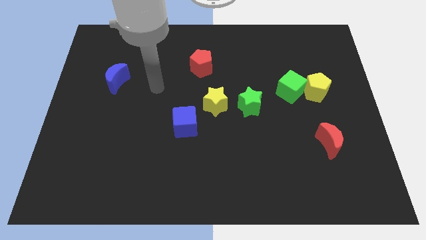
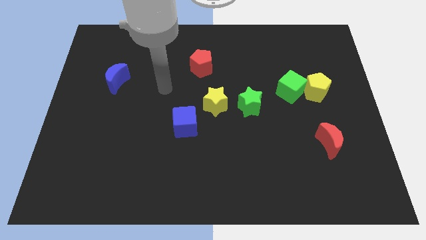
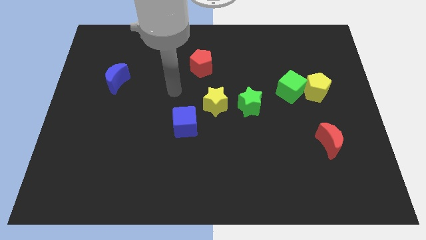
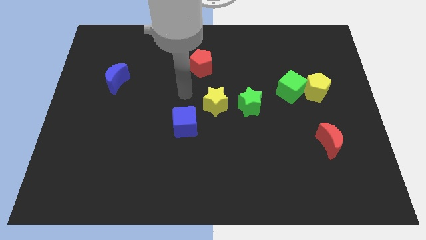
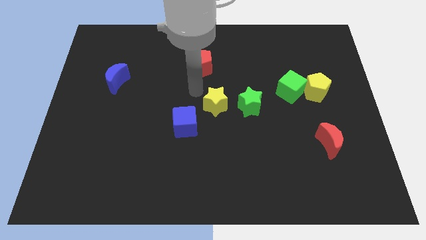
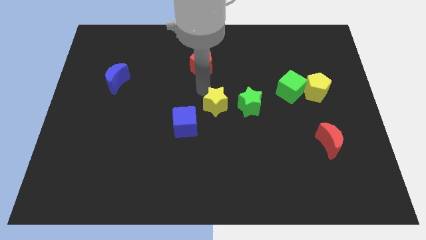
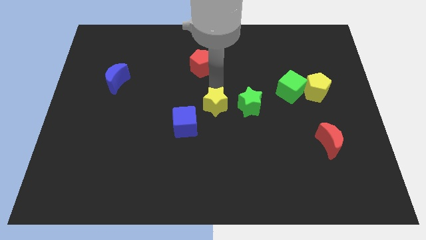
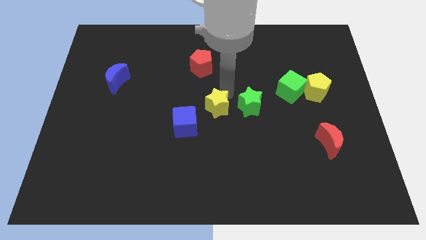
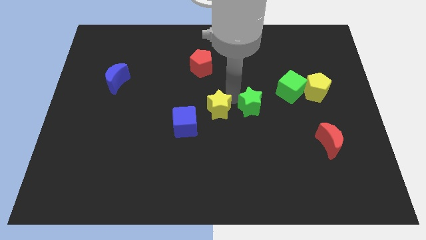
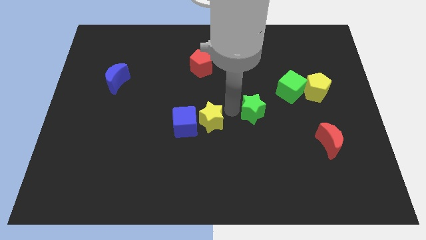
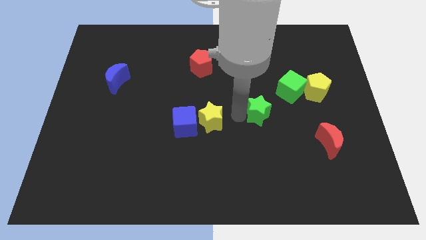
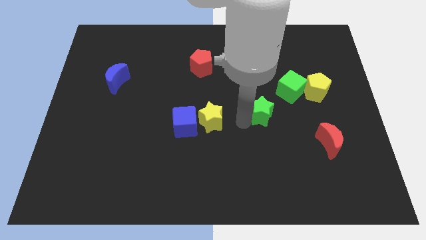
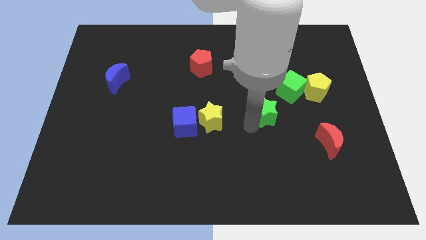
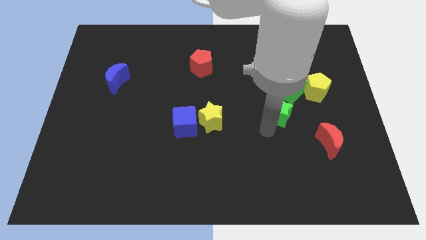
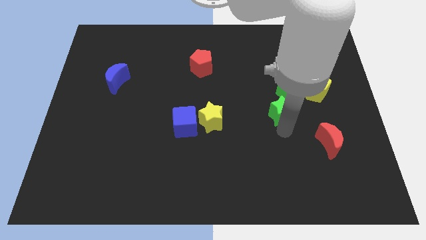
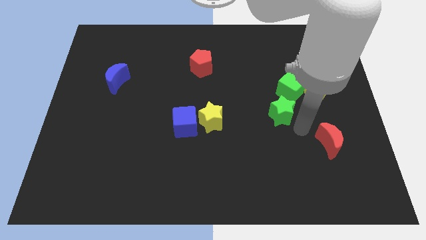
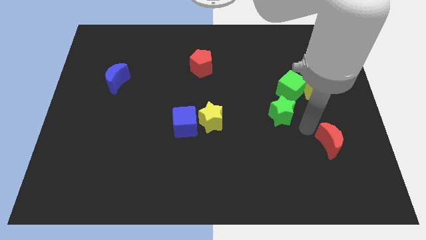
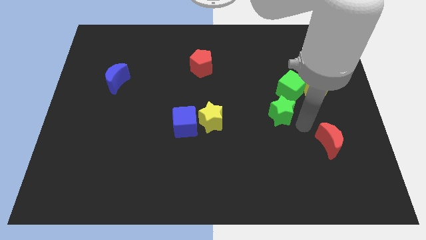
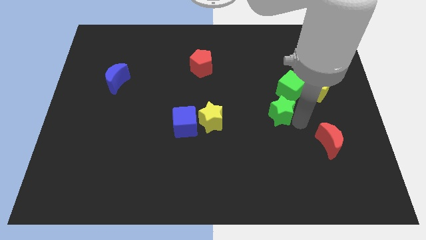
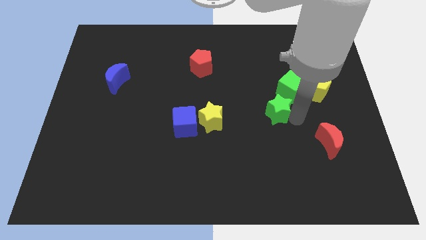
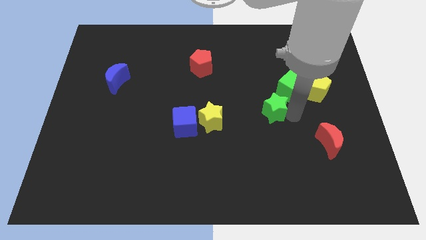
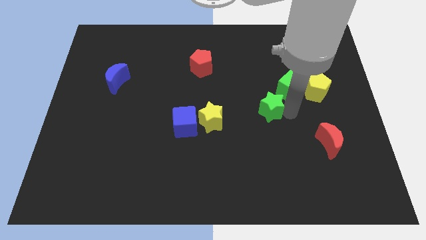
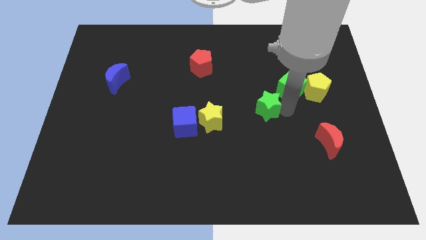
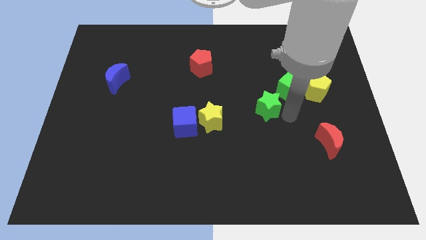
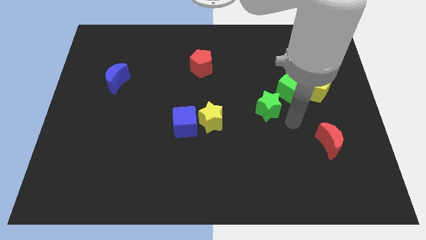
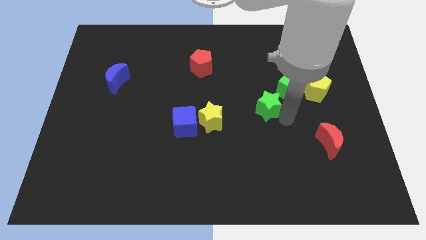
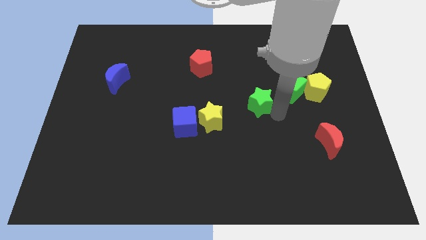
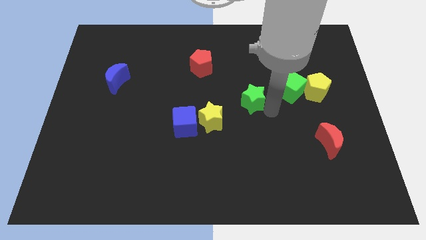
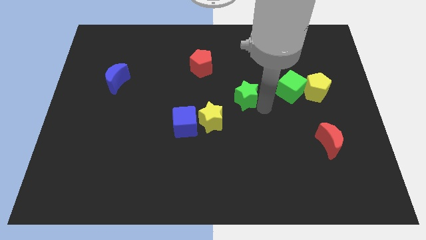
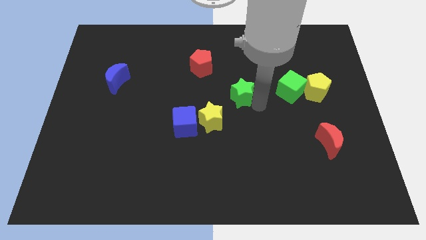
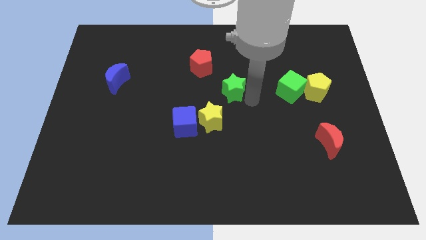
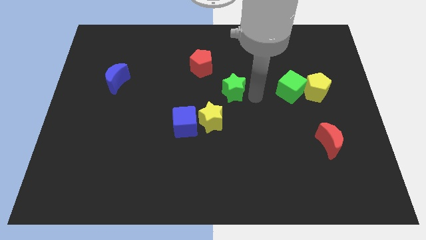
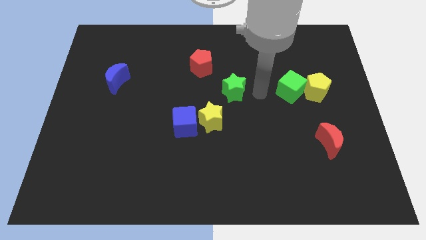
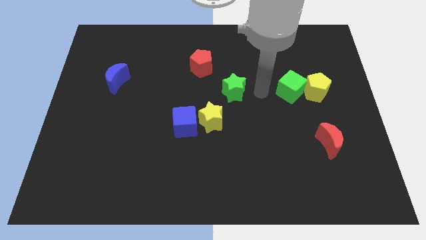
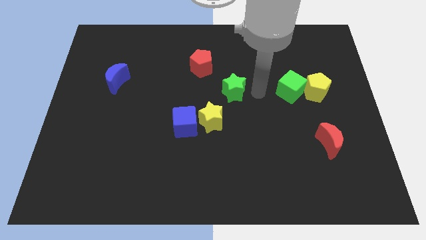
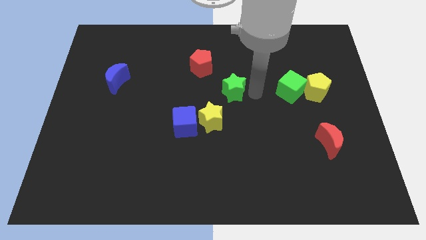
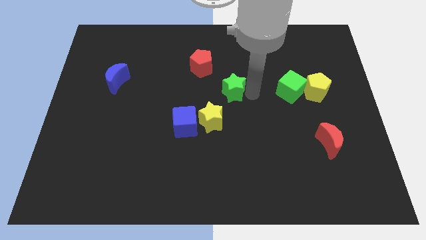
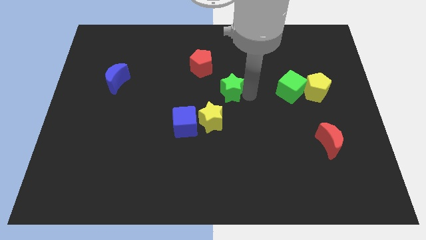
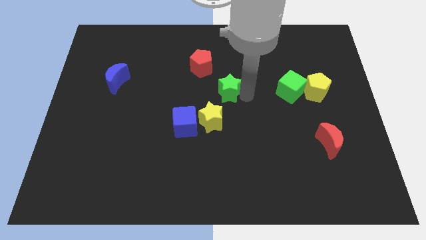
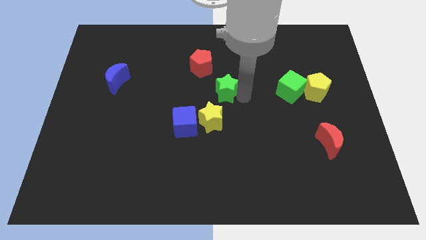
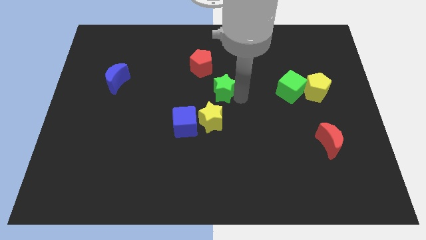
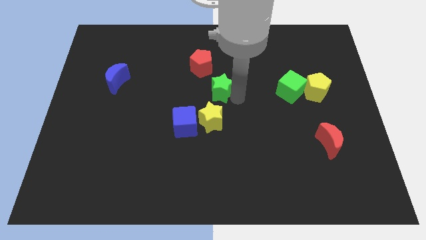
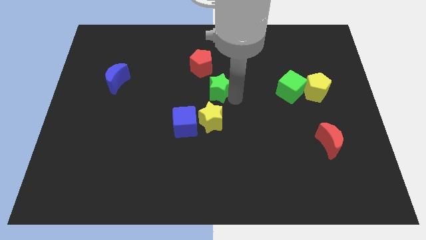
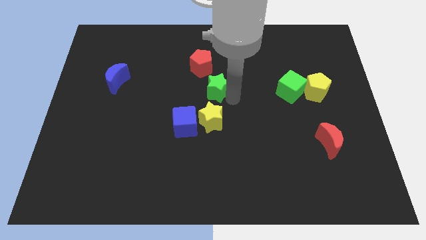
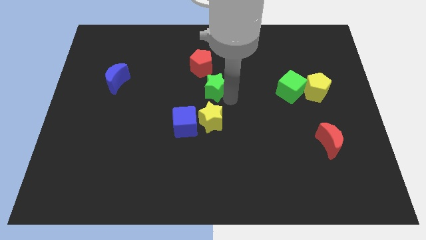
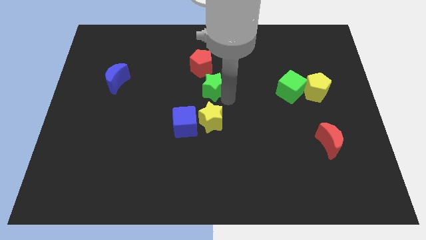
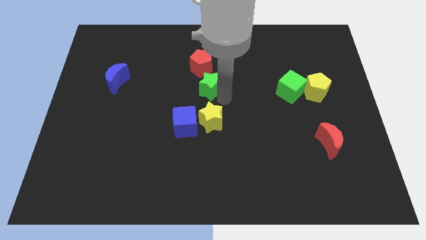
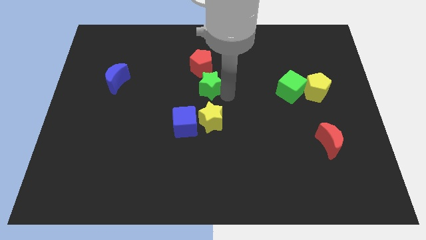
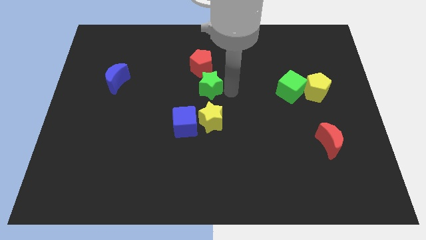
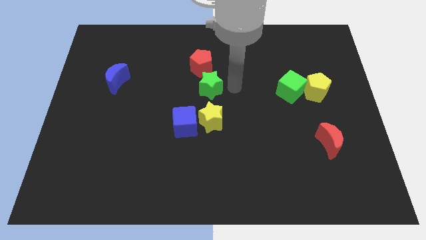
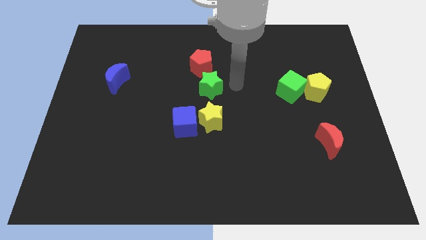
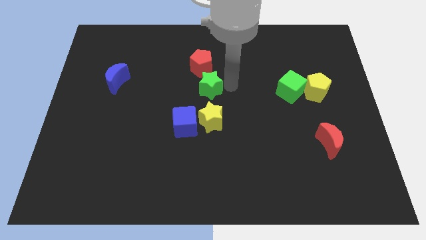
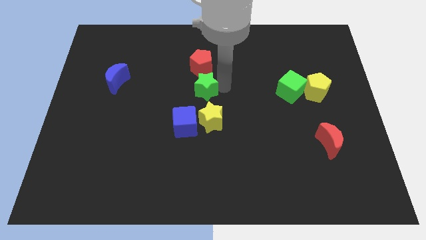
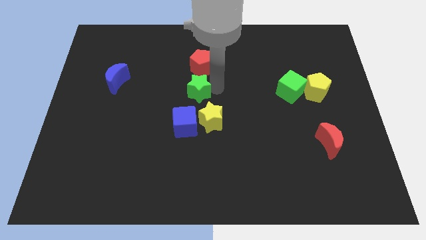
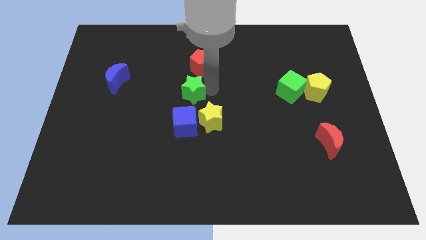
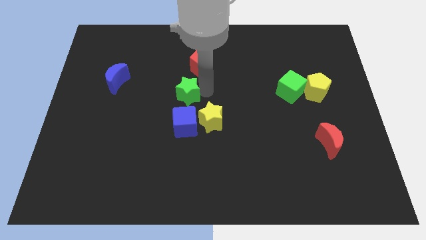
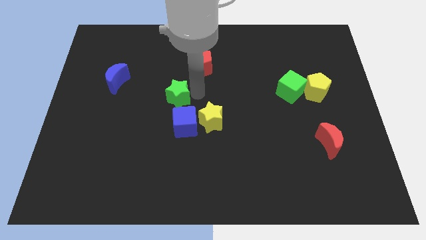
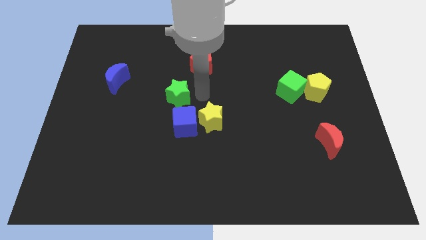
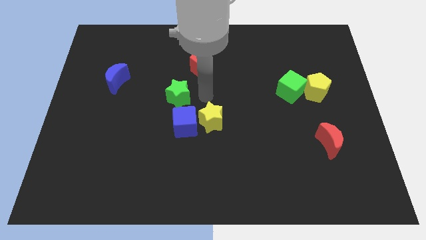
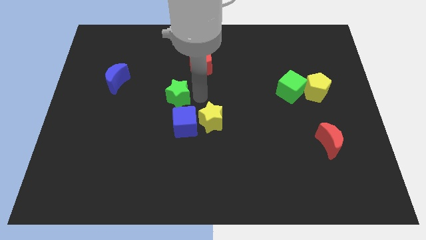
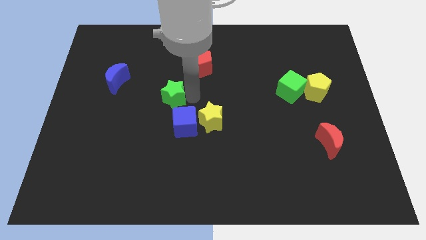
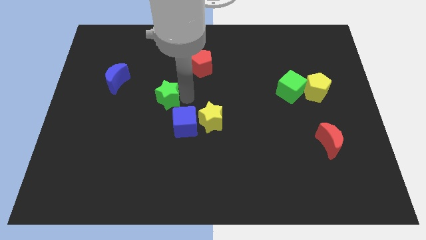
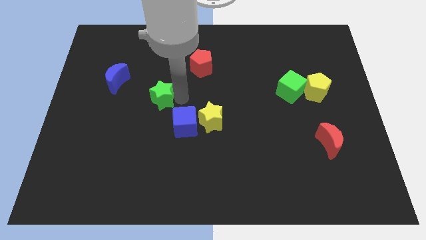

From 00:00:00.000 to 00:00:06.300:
move the green star left

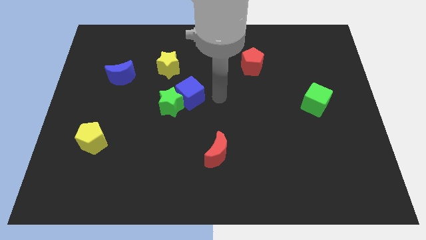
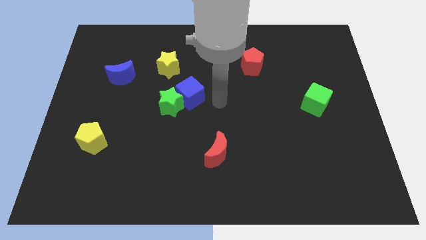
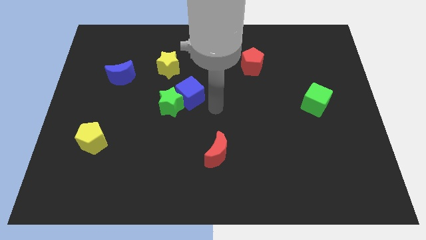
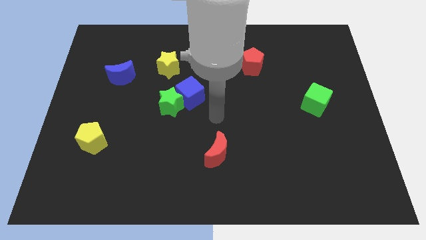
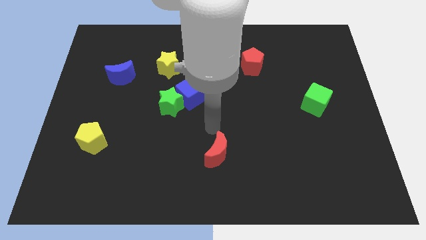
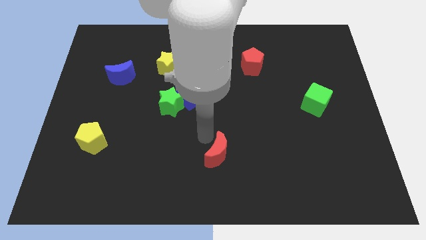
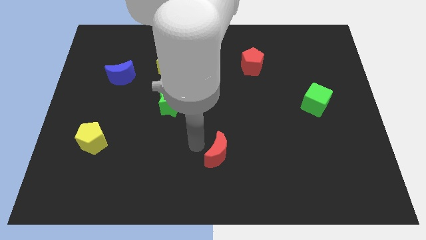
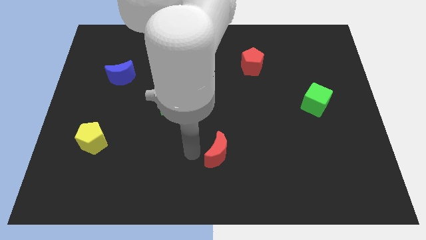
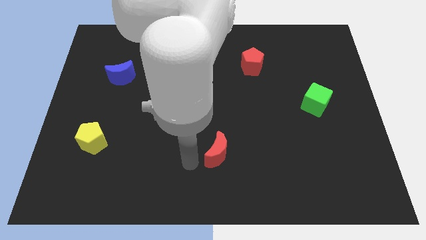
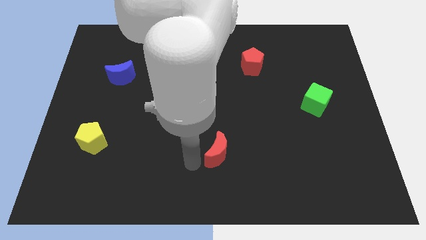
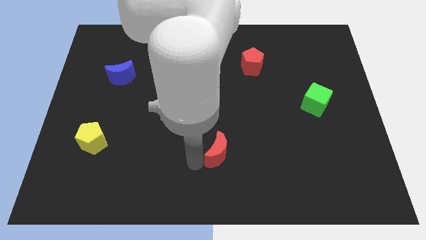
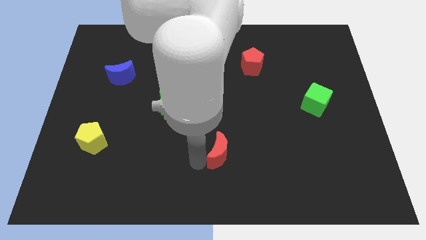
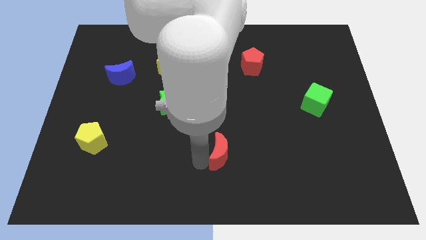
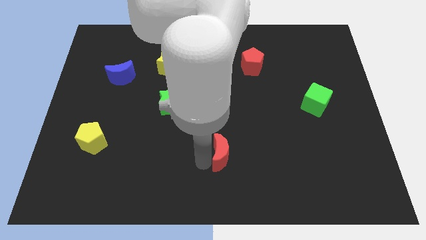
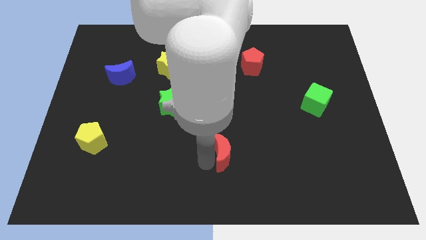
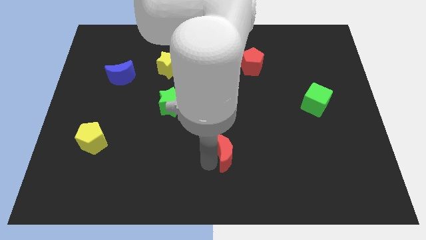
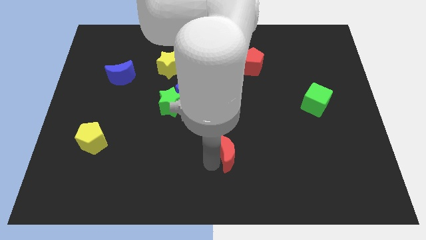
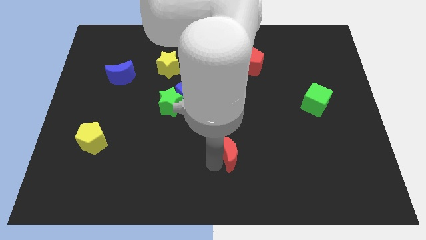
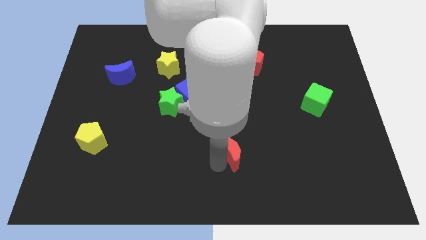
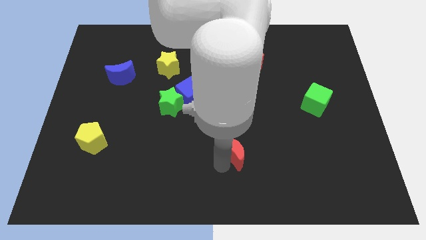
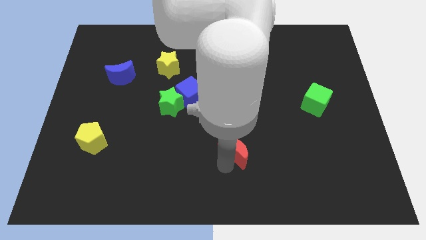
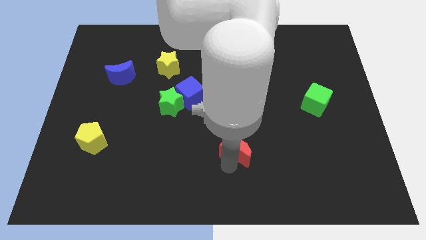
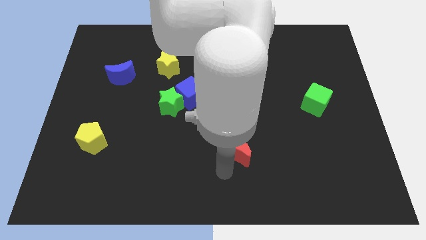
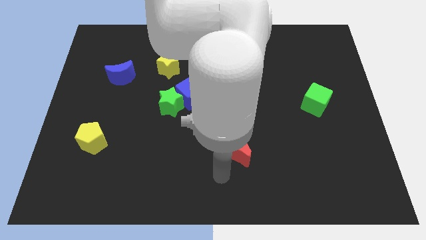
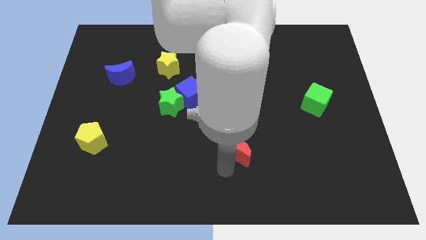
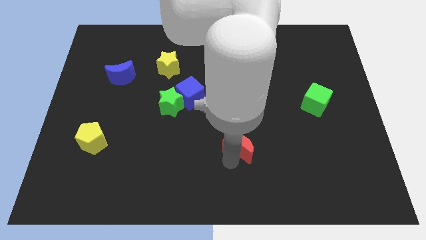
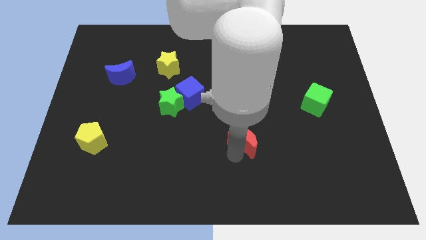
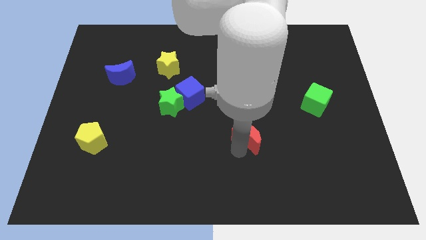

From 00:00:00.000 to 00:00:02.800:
push the red moon a bit up and then right
